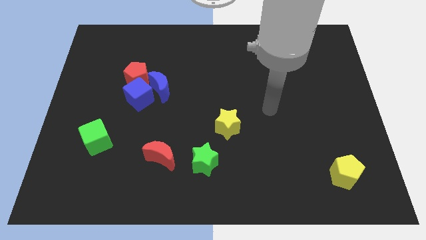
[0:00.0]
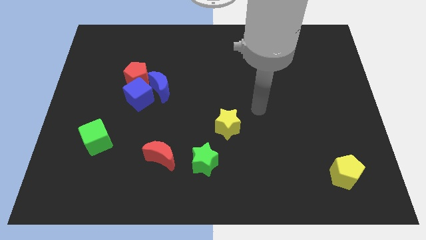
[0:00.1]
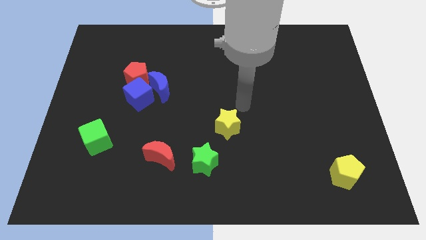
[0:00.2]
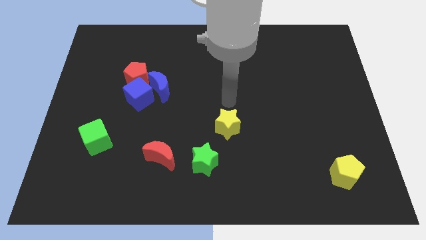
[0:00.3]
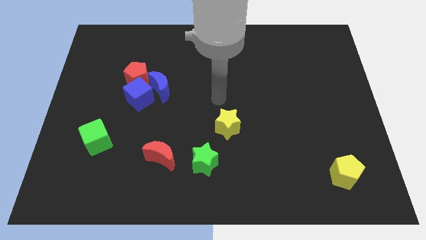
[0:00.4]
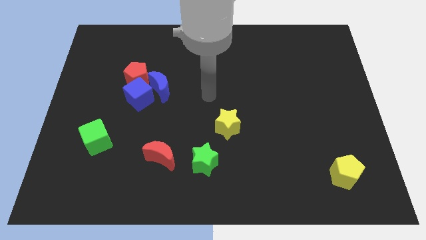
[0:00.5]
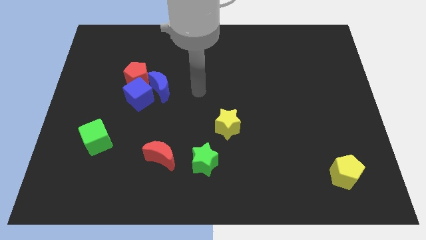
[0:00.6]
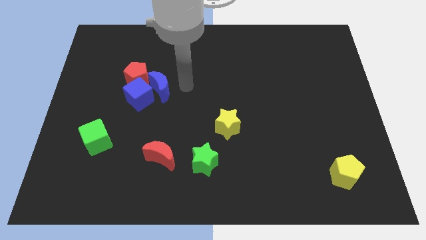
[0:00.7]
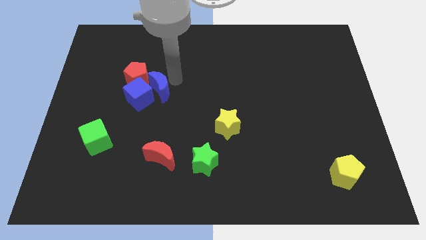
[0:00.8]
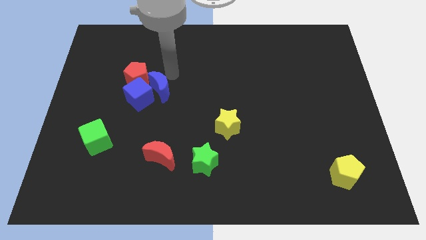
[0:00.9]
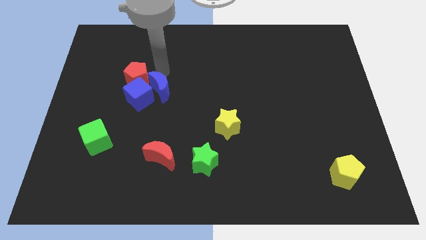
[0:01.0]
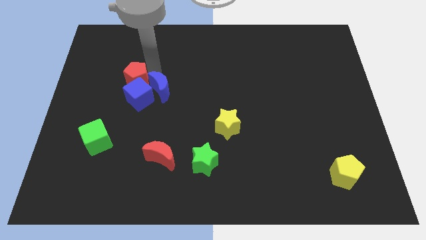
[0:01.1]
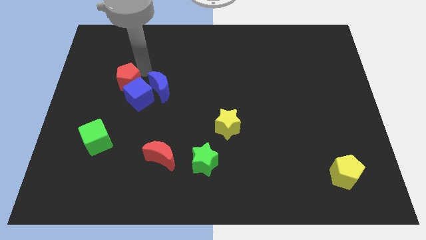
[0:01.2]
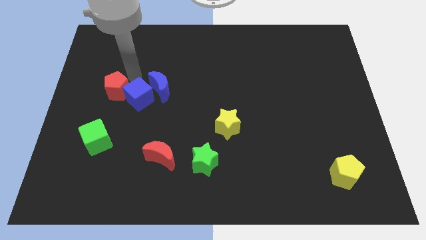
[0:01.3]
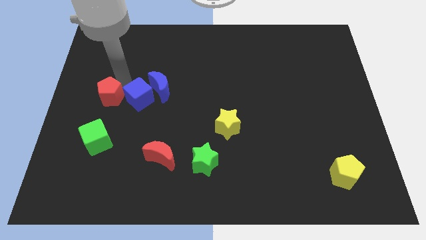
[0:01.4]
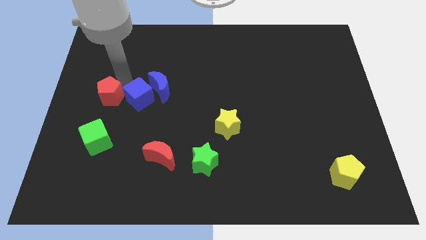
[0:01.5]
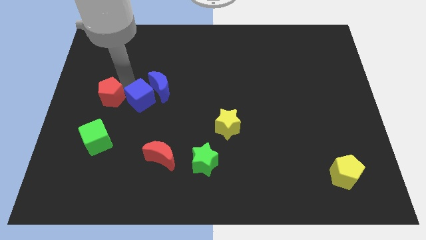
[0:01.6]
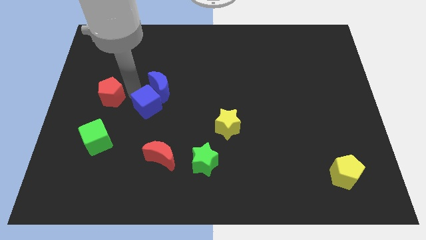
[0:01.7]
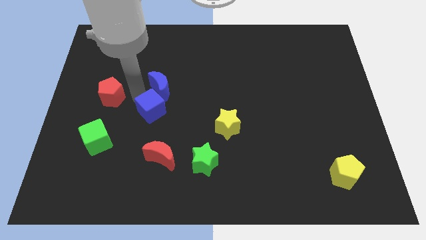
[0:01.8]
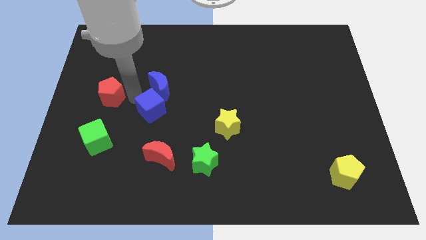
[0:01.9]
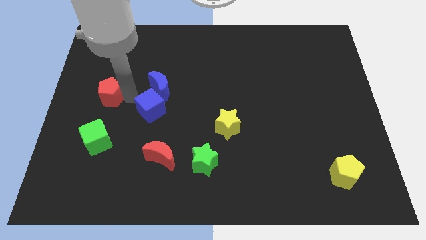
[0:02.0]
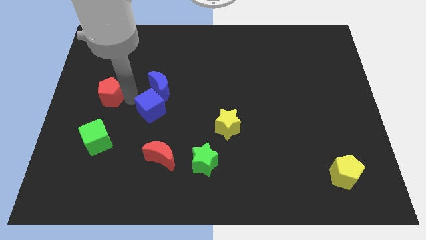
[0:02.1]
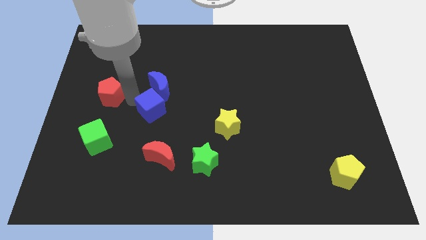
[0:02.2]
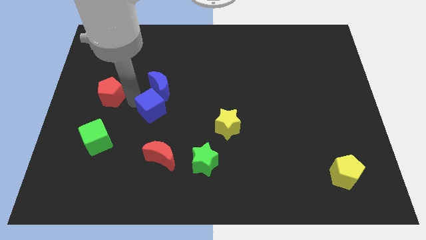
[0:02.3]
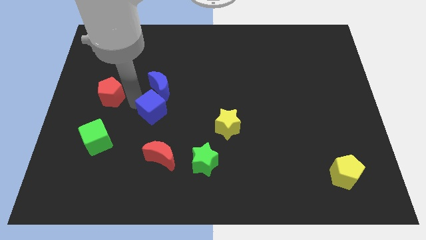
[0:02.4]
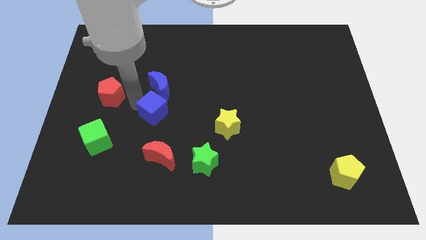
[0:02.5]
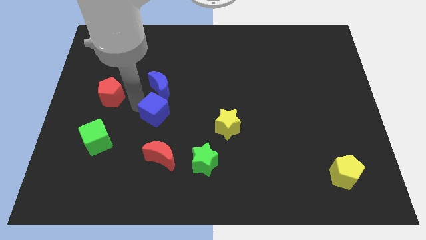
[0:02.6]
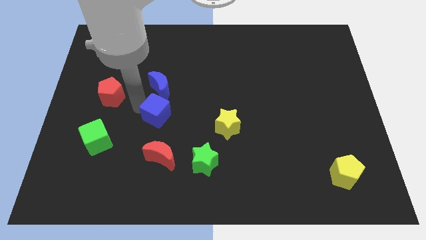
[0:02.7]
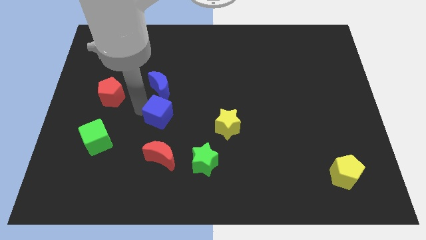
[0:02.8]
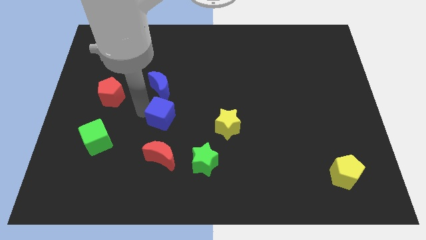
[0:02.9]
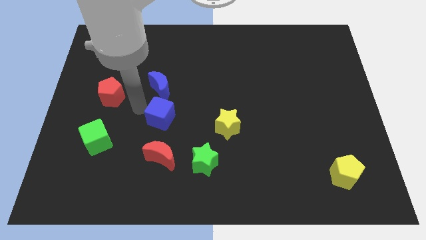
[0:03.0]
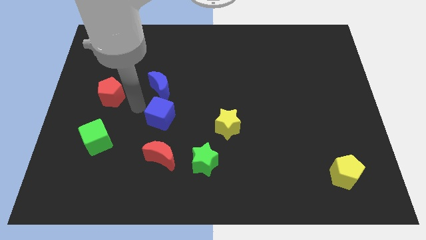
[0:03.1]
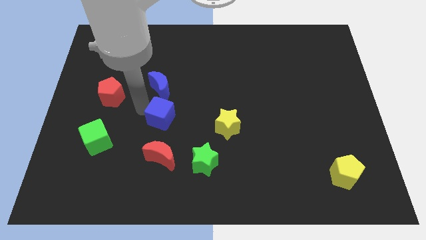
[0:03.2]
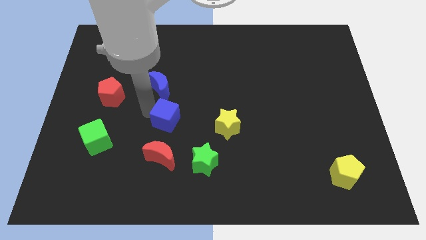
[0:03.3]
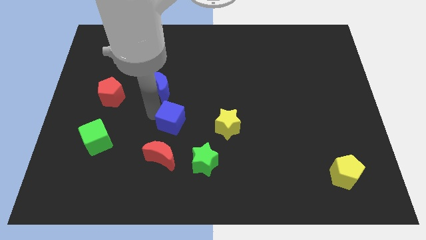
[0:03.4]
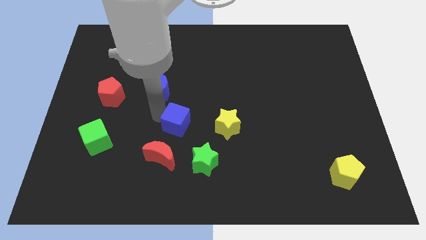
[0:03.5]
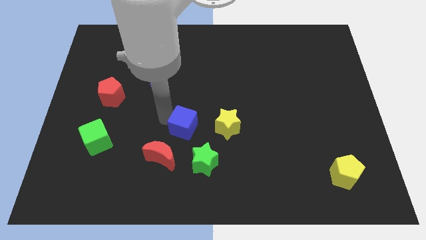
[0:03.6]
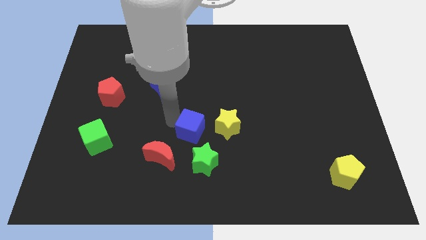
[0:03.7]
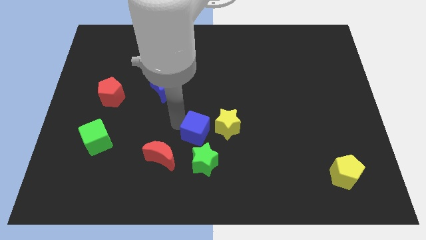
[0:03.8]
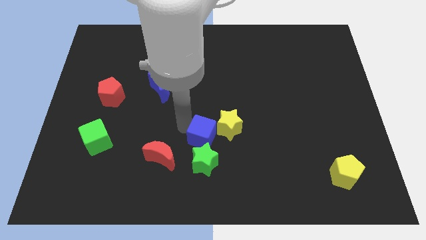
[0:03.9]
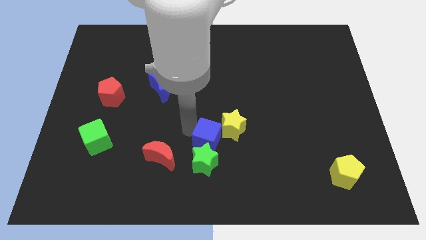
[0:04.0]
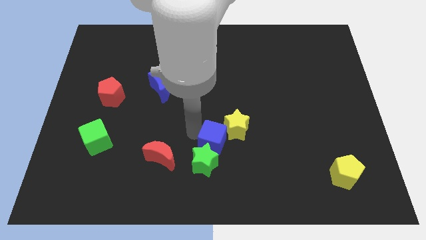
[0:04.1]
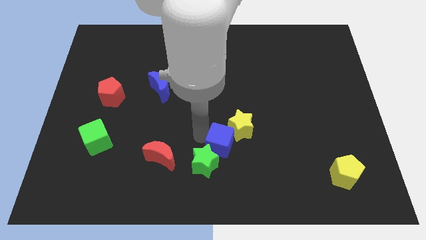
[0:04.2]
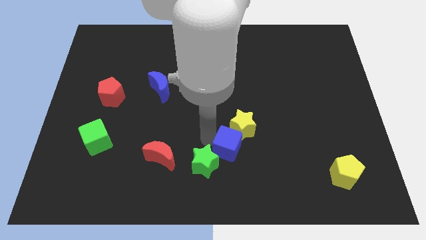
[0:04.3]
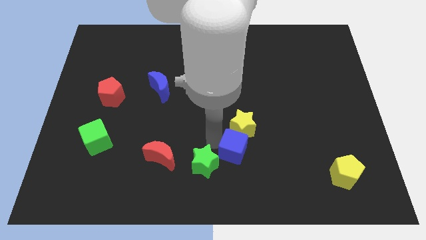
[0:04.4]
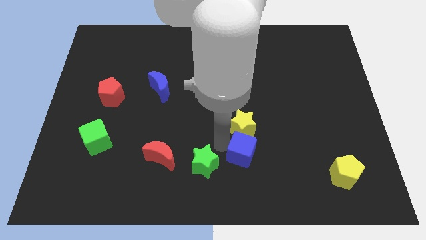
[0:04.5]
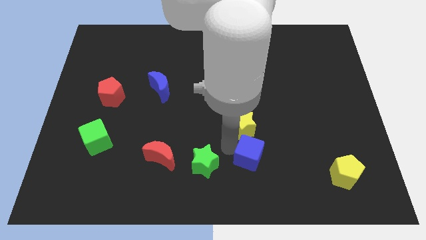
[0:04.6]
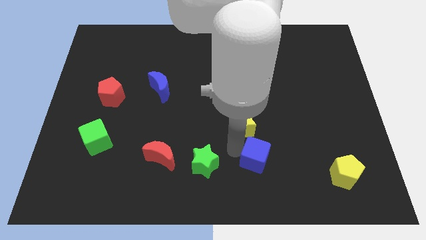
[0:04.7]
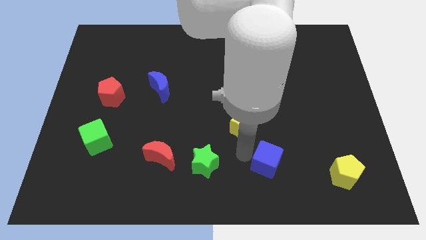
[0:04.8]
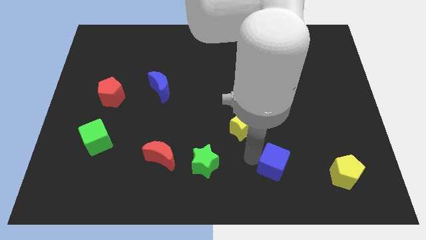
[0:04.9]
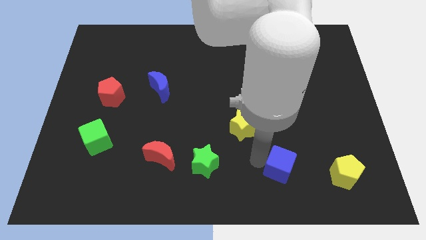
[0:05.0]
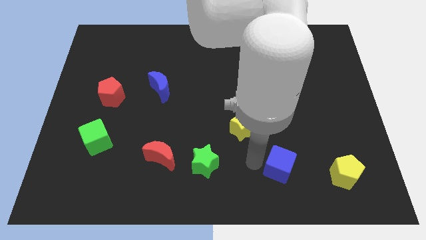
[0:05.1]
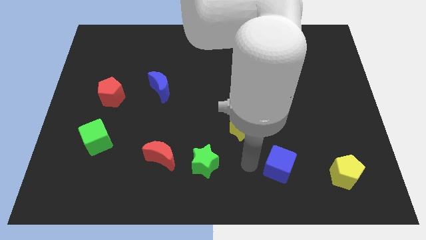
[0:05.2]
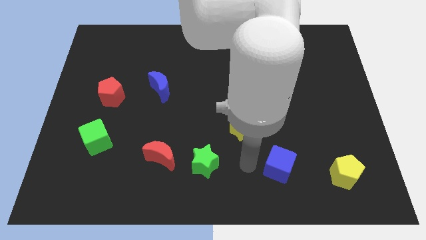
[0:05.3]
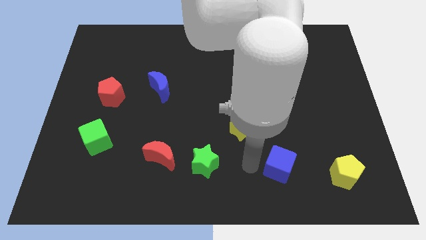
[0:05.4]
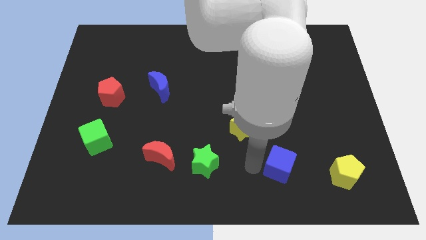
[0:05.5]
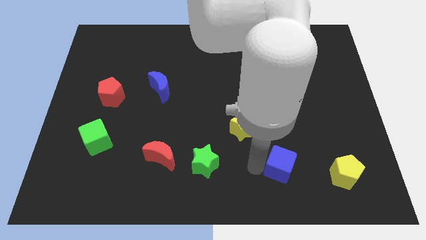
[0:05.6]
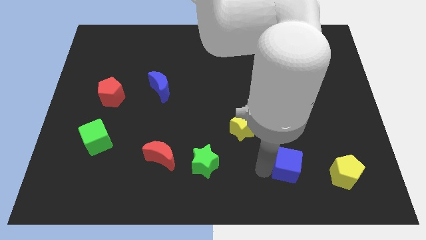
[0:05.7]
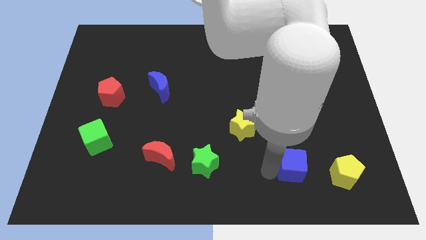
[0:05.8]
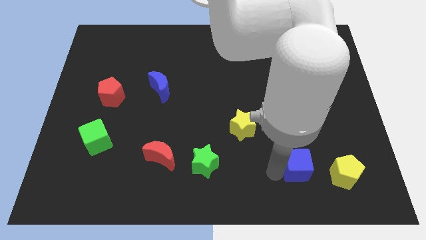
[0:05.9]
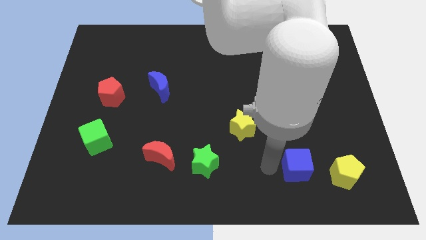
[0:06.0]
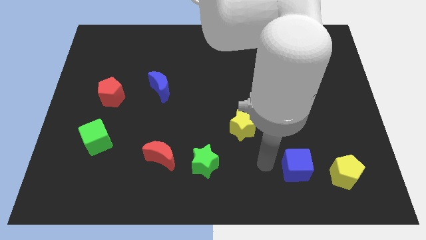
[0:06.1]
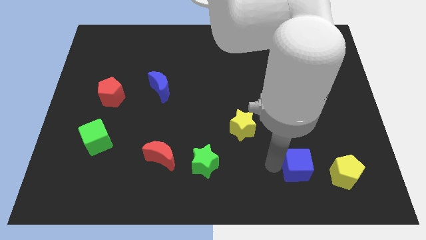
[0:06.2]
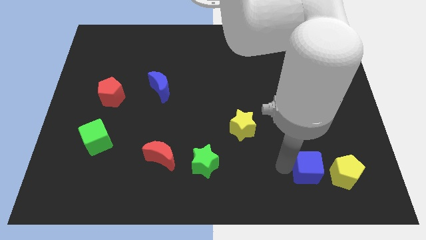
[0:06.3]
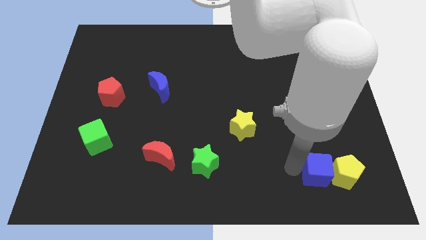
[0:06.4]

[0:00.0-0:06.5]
put the blue cube close to the yellow pentagon
